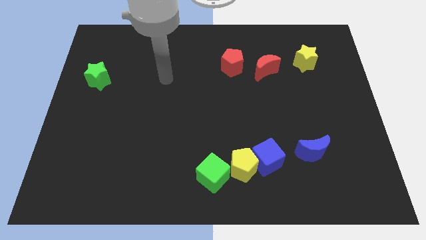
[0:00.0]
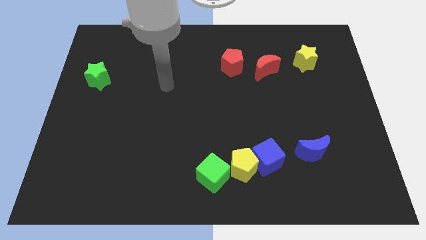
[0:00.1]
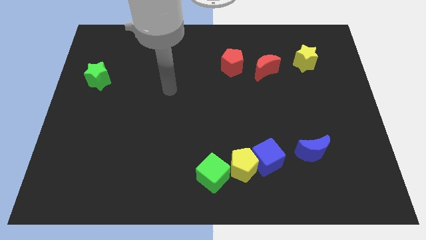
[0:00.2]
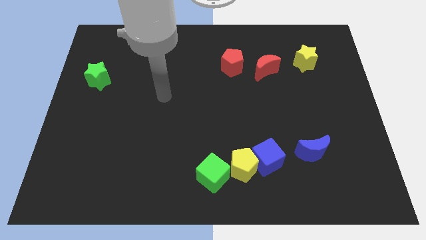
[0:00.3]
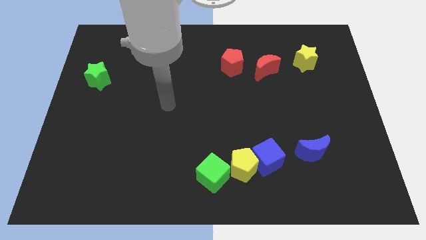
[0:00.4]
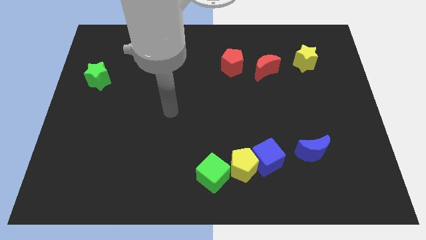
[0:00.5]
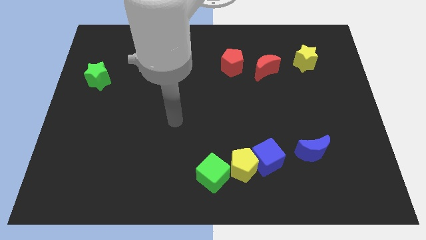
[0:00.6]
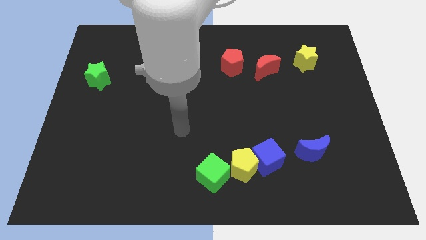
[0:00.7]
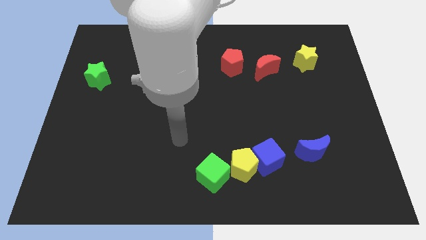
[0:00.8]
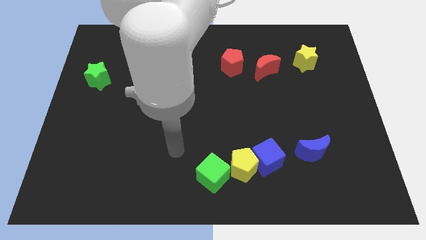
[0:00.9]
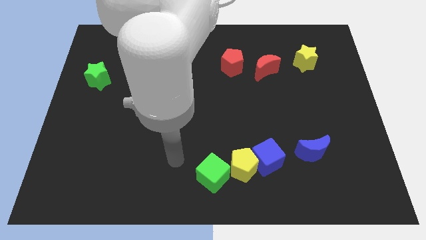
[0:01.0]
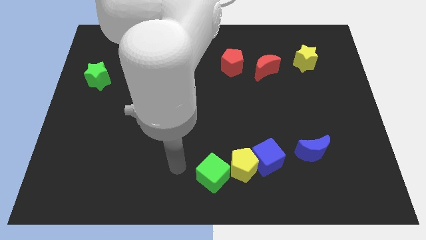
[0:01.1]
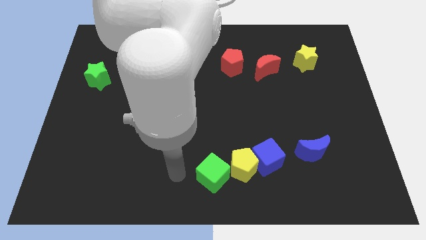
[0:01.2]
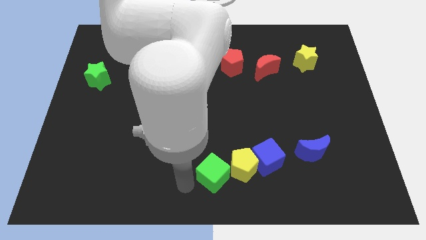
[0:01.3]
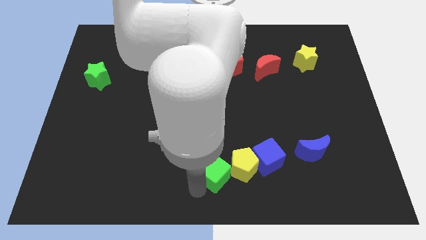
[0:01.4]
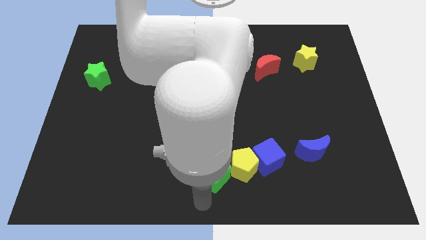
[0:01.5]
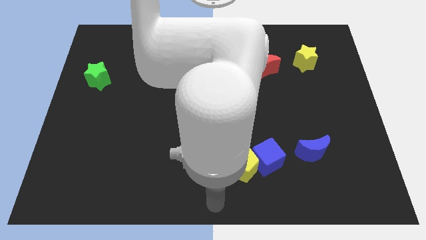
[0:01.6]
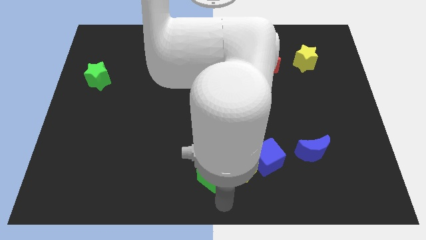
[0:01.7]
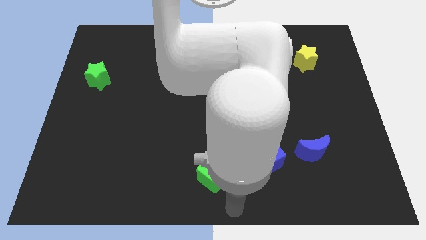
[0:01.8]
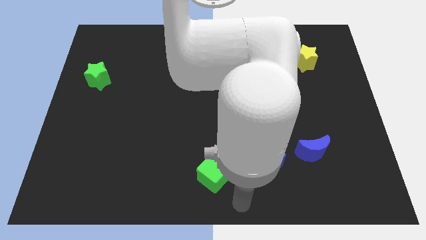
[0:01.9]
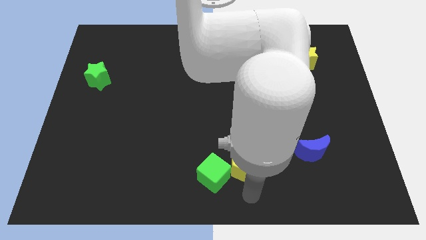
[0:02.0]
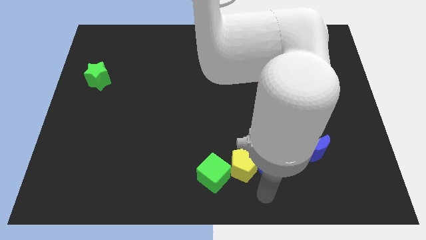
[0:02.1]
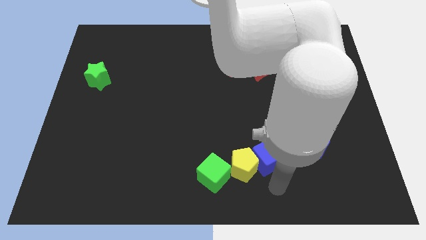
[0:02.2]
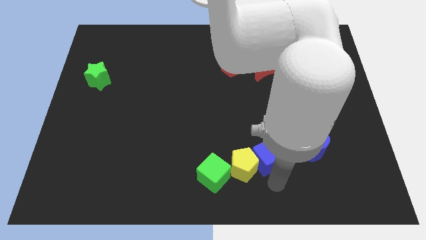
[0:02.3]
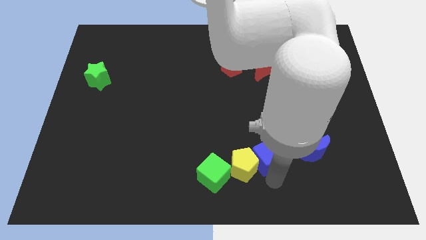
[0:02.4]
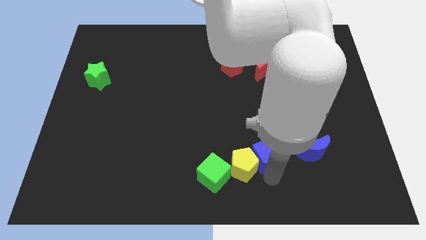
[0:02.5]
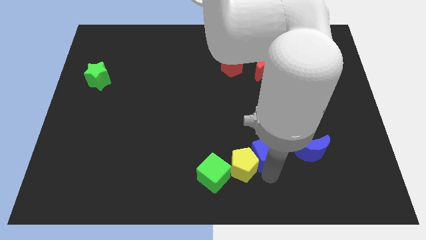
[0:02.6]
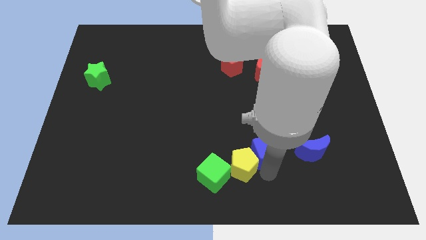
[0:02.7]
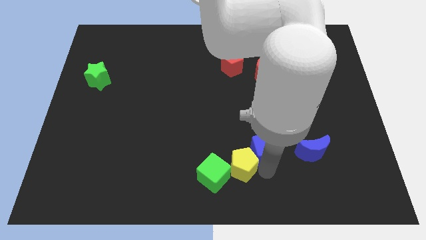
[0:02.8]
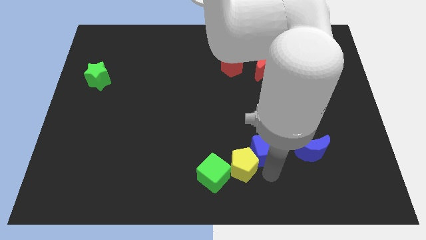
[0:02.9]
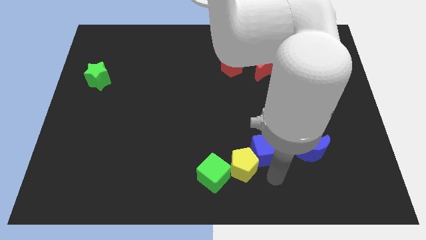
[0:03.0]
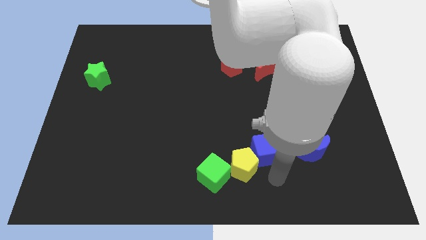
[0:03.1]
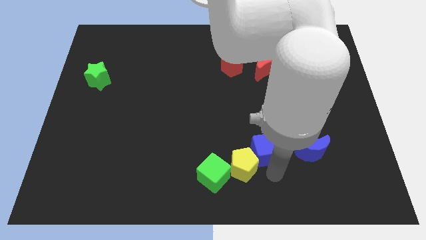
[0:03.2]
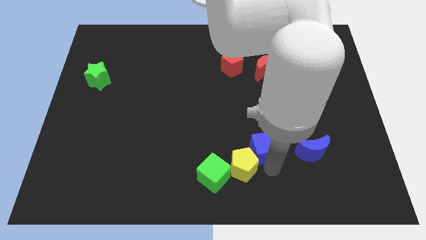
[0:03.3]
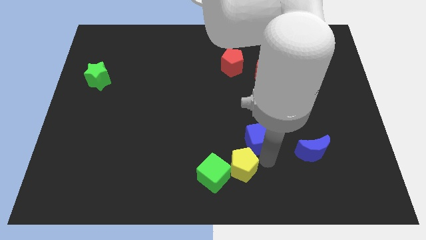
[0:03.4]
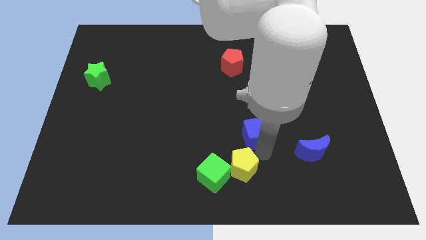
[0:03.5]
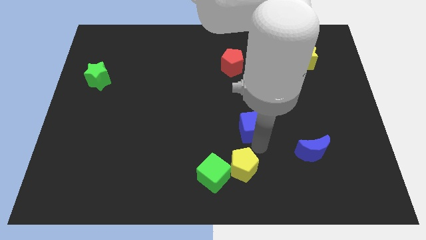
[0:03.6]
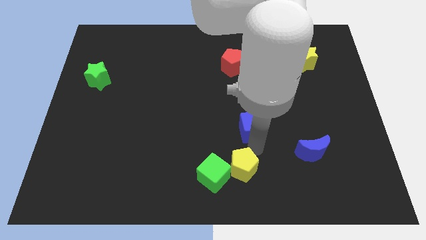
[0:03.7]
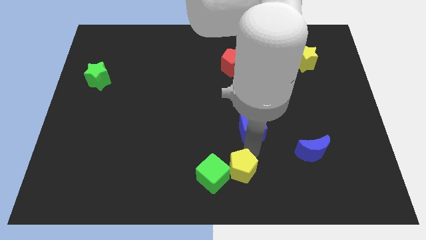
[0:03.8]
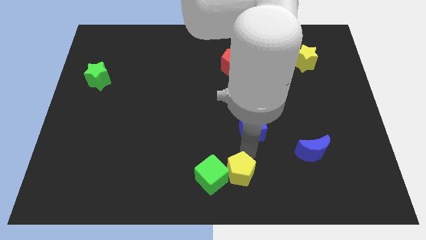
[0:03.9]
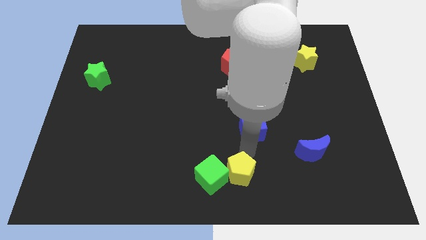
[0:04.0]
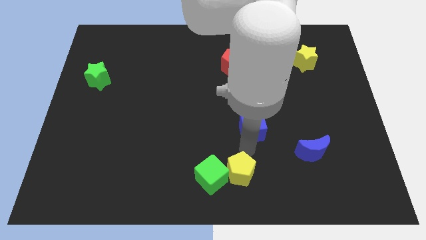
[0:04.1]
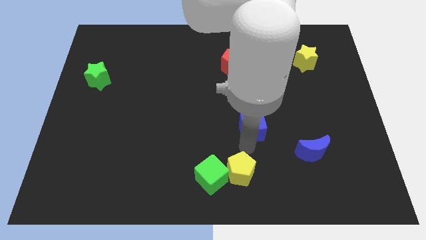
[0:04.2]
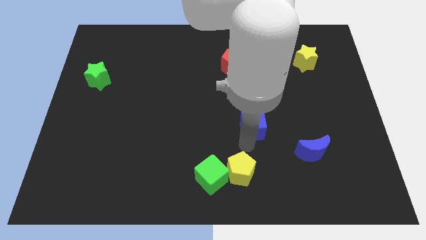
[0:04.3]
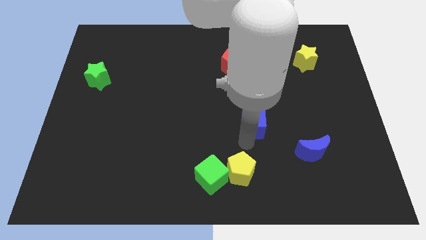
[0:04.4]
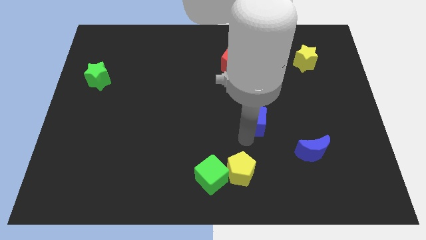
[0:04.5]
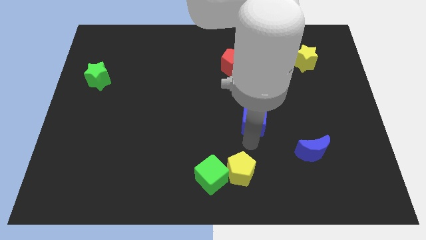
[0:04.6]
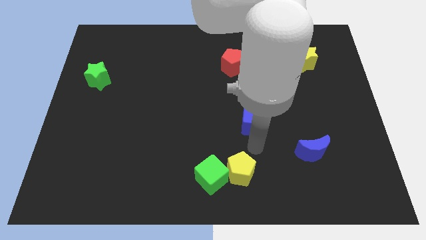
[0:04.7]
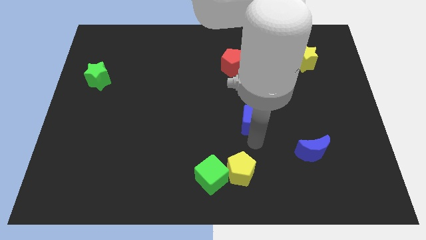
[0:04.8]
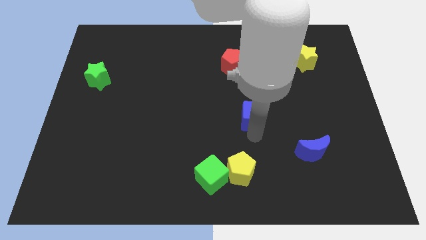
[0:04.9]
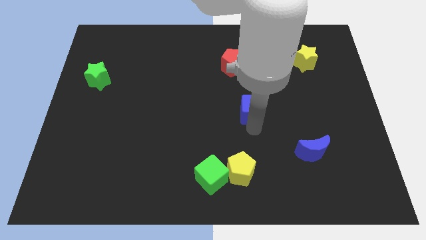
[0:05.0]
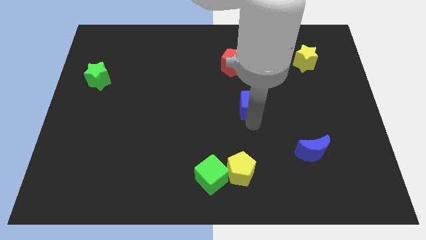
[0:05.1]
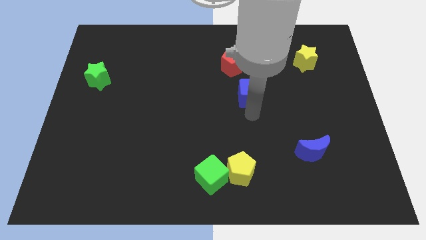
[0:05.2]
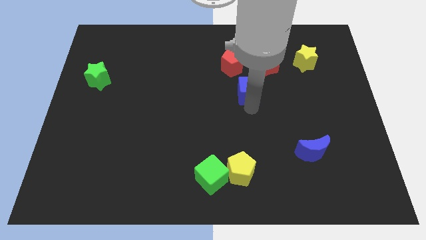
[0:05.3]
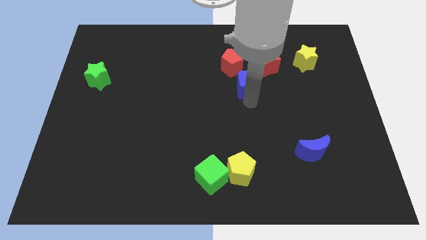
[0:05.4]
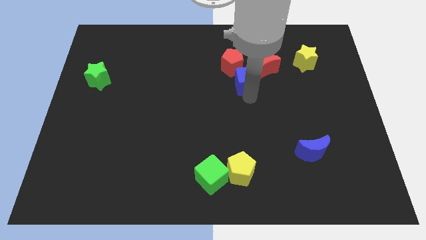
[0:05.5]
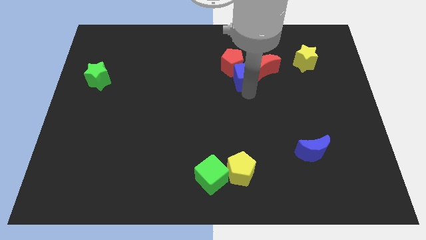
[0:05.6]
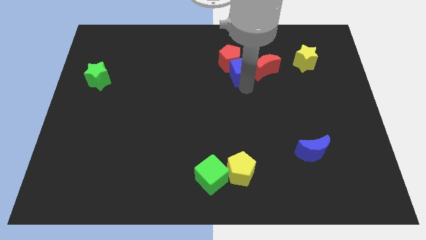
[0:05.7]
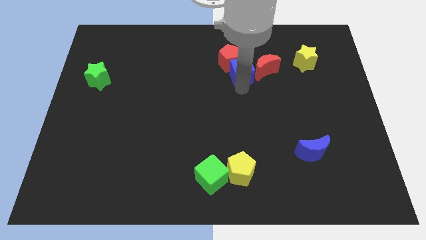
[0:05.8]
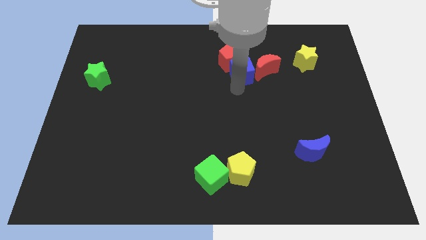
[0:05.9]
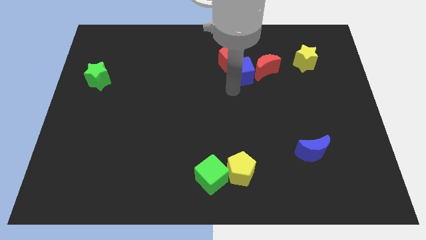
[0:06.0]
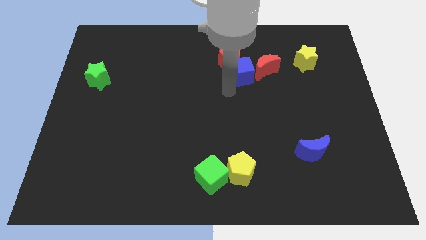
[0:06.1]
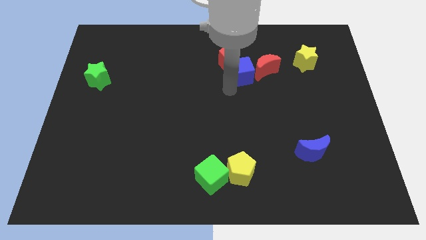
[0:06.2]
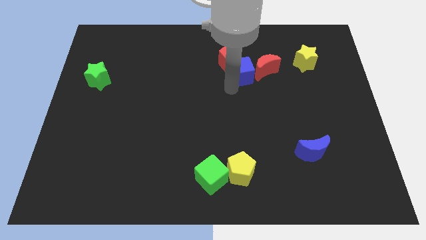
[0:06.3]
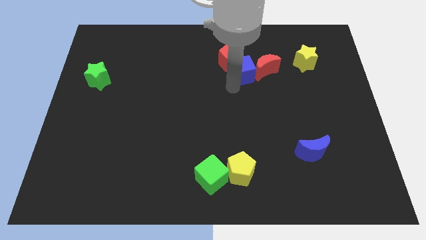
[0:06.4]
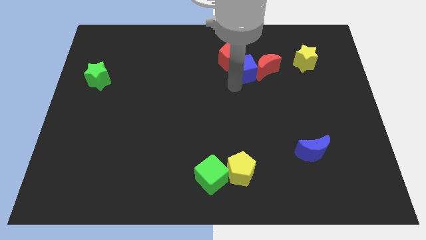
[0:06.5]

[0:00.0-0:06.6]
slide the blue cube to the top left of the red moon

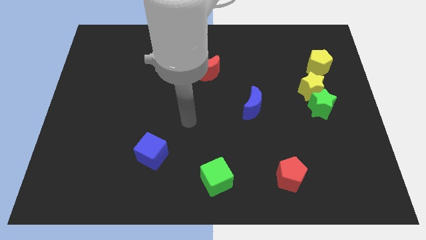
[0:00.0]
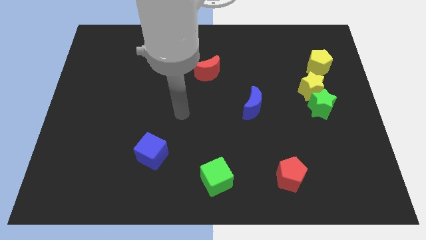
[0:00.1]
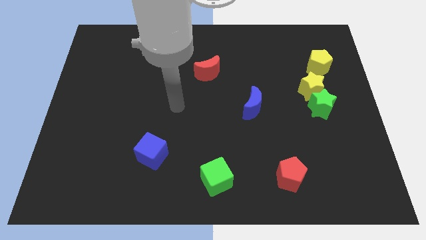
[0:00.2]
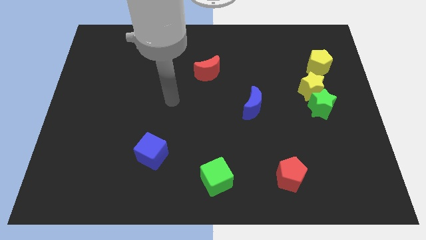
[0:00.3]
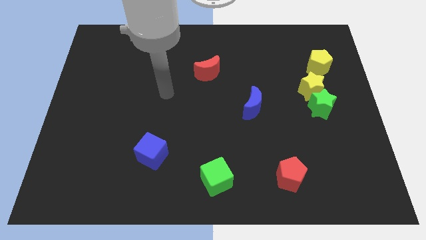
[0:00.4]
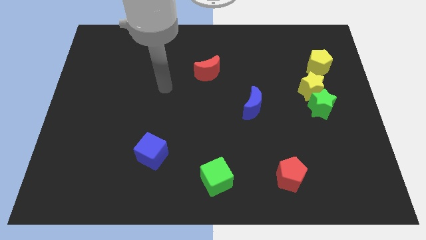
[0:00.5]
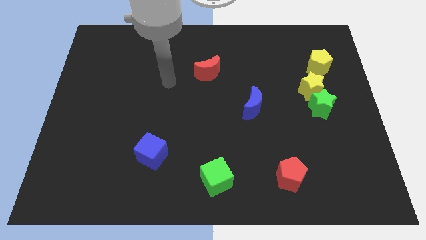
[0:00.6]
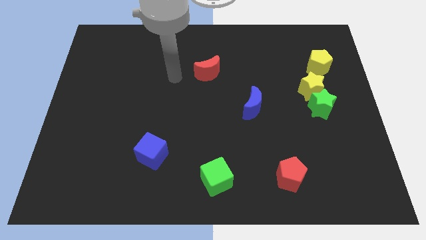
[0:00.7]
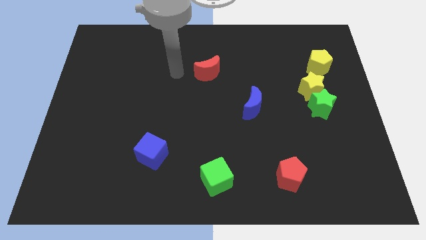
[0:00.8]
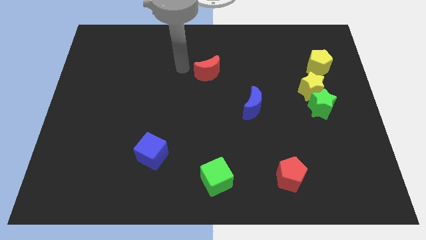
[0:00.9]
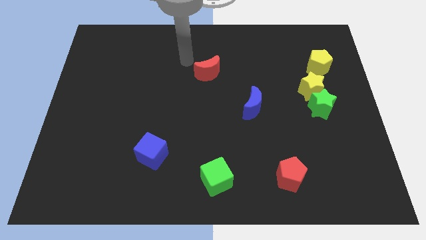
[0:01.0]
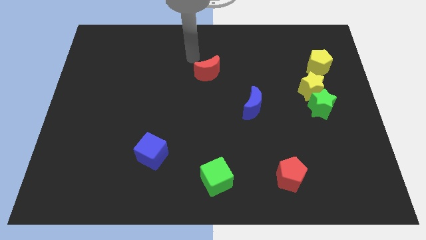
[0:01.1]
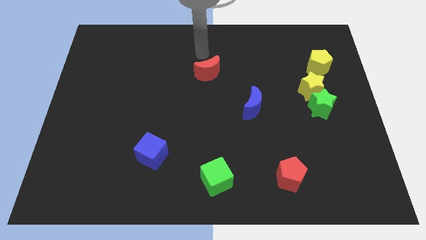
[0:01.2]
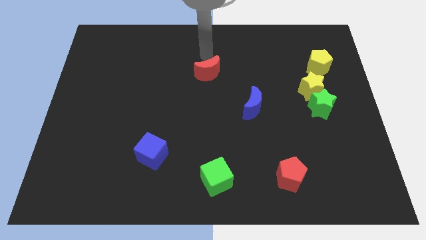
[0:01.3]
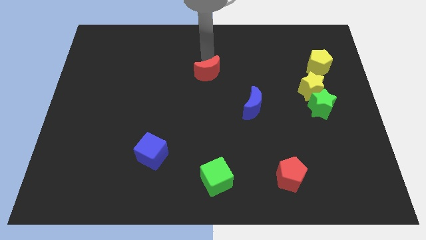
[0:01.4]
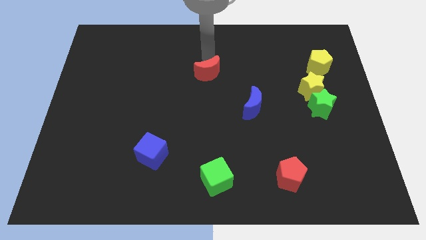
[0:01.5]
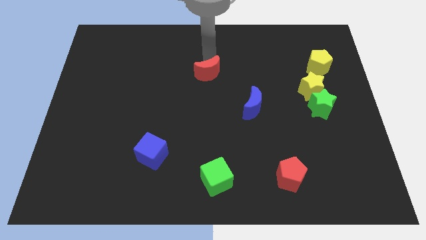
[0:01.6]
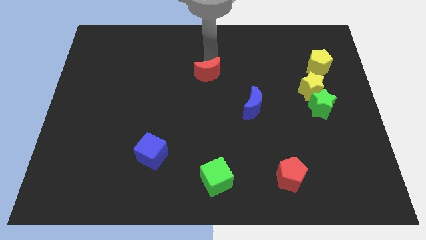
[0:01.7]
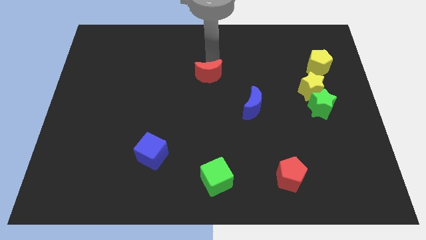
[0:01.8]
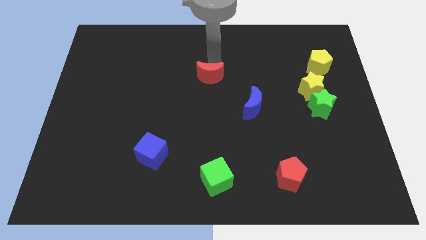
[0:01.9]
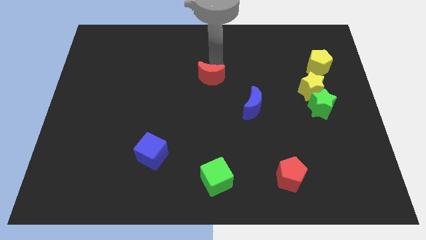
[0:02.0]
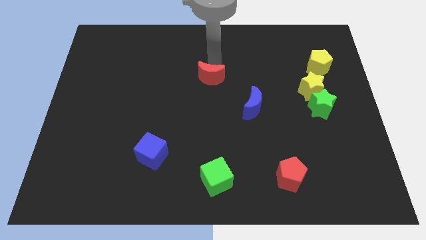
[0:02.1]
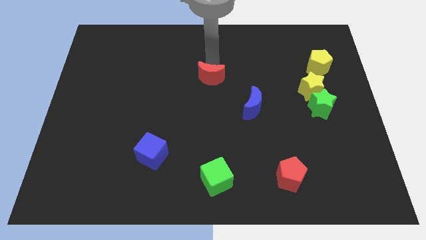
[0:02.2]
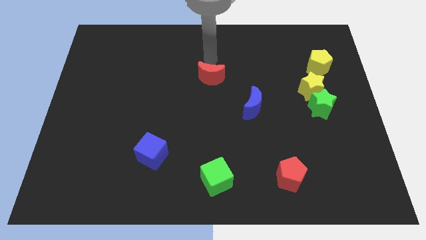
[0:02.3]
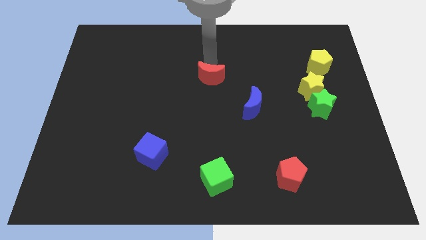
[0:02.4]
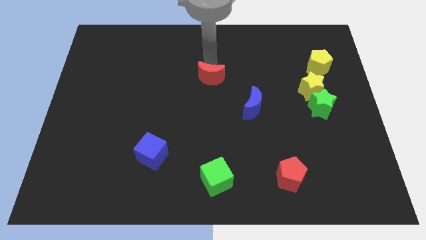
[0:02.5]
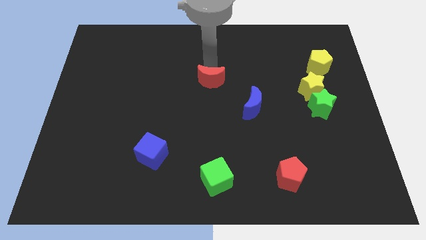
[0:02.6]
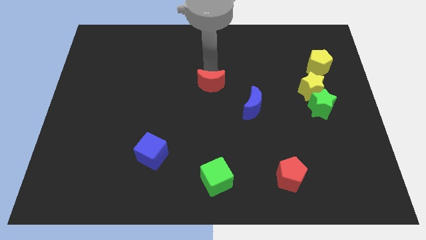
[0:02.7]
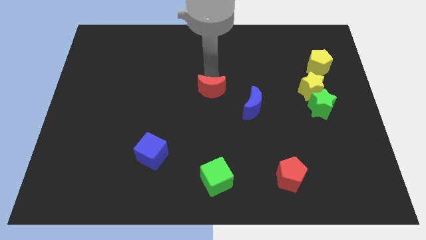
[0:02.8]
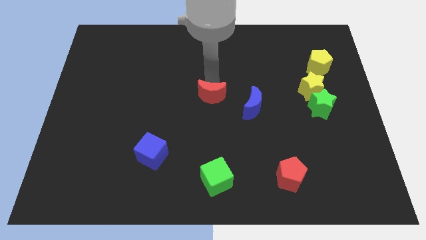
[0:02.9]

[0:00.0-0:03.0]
slide the red moon to the left side of the blue moon
